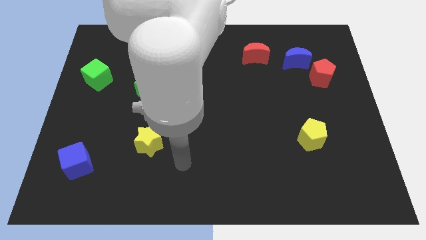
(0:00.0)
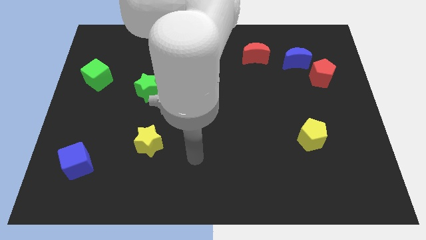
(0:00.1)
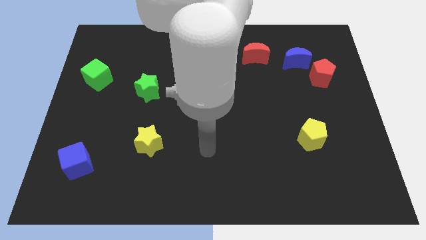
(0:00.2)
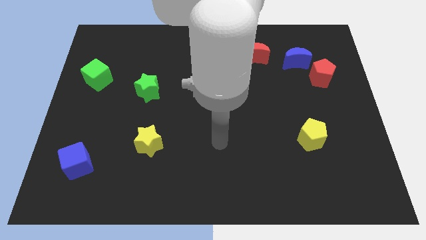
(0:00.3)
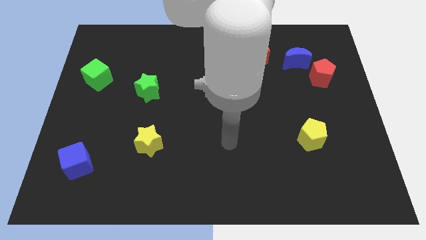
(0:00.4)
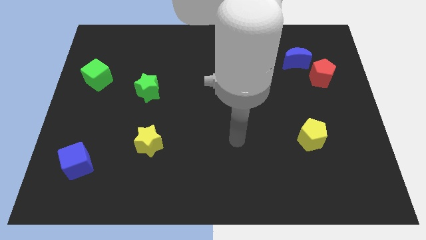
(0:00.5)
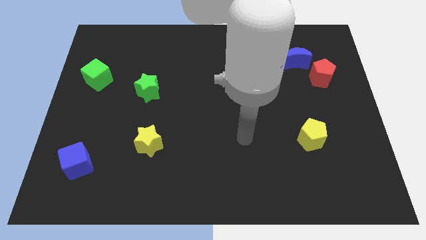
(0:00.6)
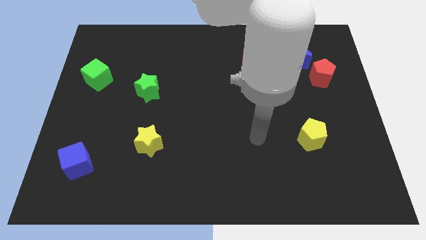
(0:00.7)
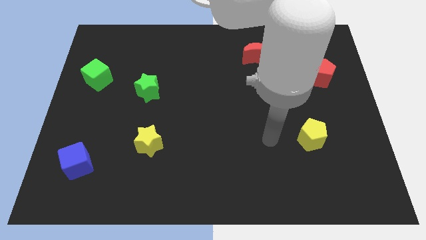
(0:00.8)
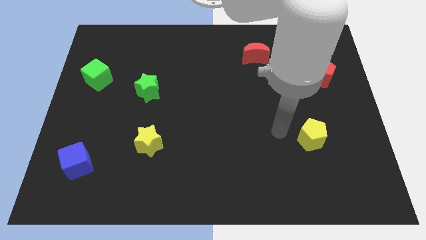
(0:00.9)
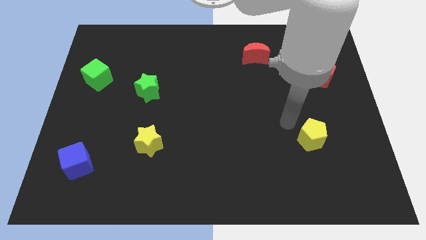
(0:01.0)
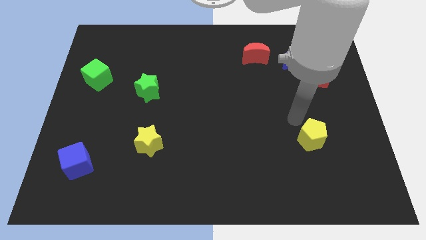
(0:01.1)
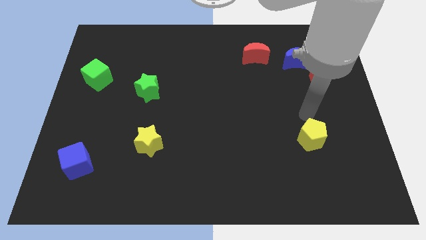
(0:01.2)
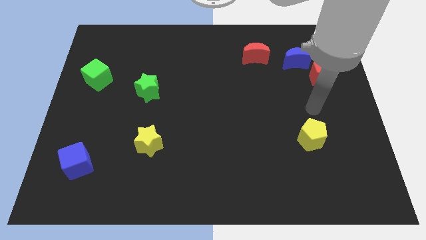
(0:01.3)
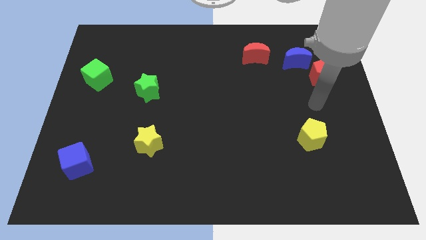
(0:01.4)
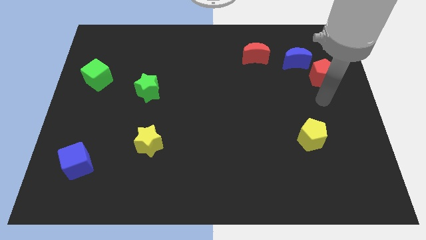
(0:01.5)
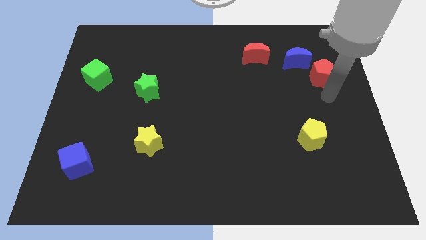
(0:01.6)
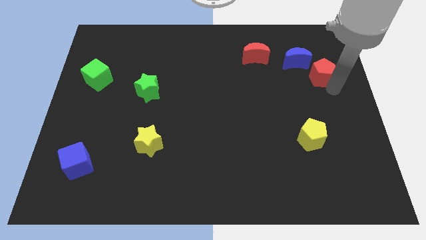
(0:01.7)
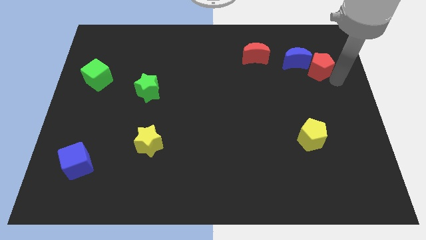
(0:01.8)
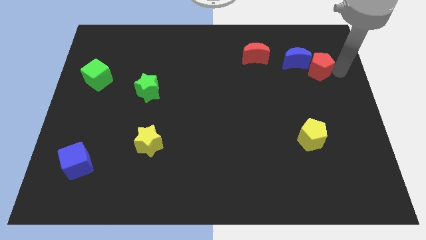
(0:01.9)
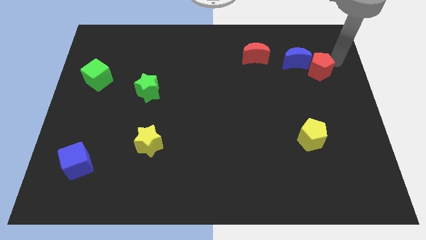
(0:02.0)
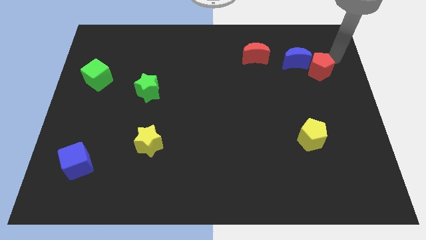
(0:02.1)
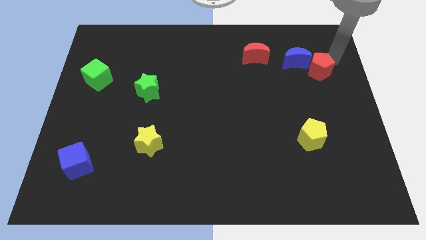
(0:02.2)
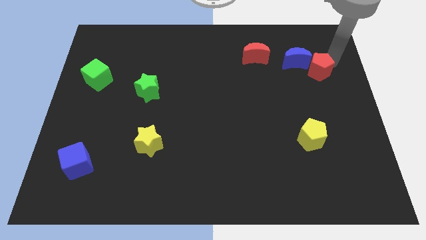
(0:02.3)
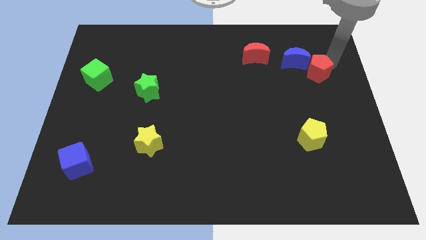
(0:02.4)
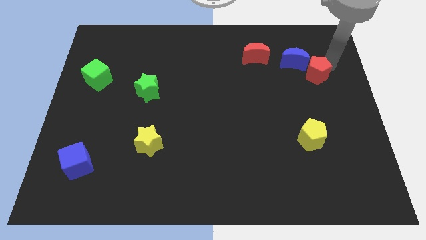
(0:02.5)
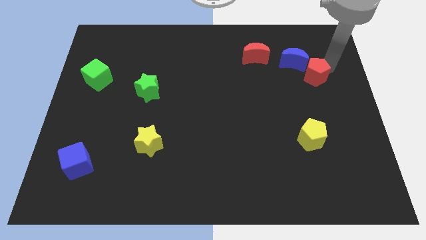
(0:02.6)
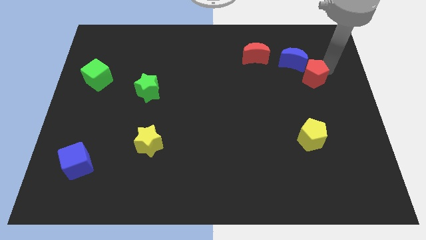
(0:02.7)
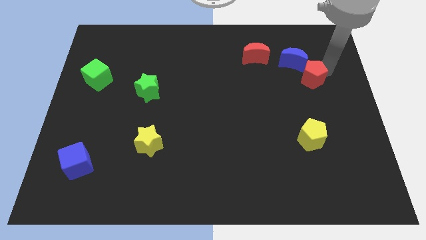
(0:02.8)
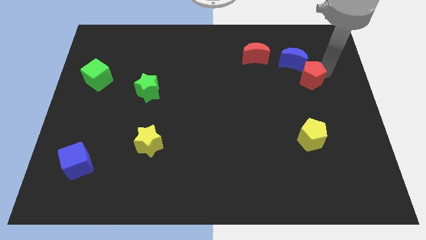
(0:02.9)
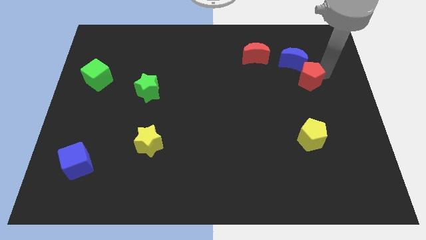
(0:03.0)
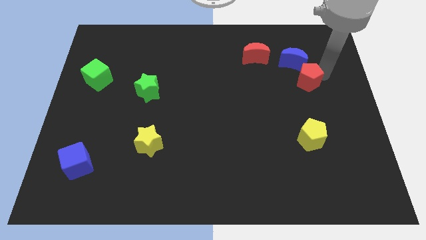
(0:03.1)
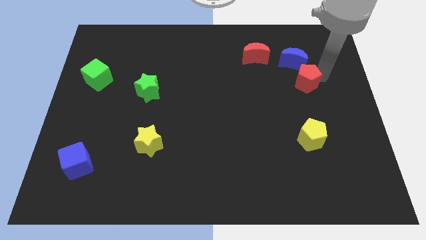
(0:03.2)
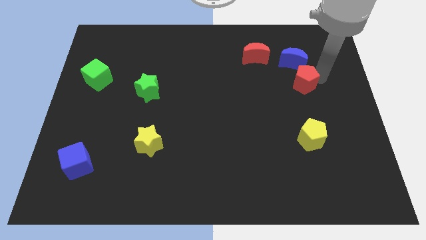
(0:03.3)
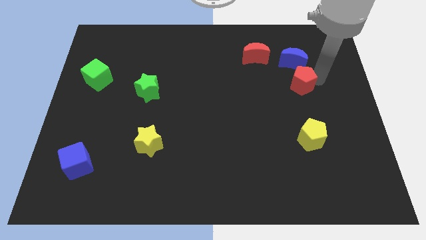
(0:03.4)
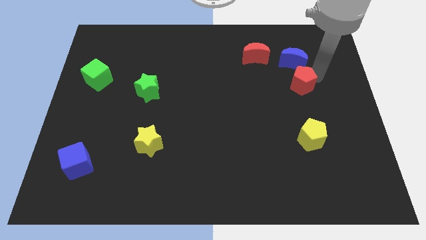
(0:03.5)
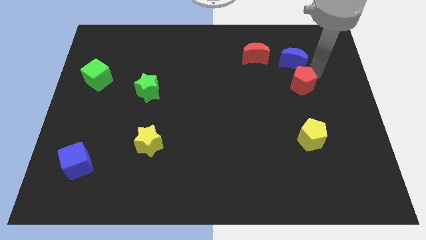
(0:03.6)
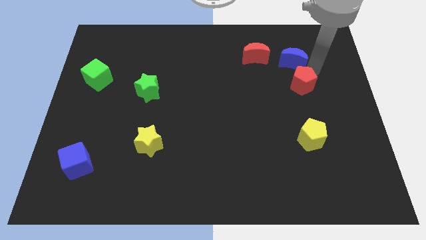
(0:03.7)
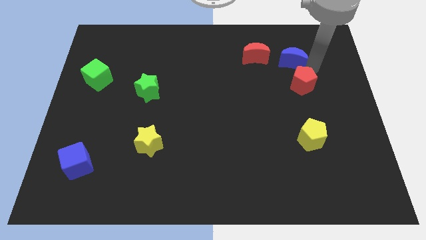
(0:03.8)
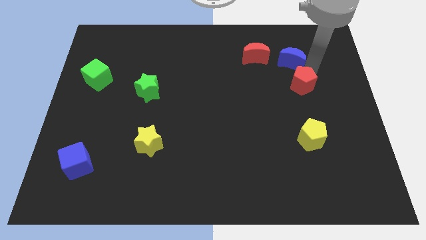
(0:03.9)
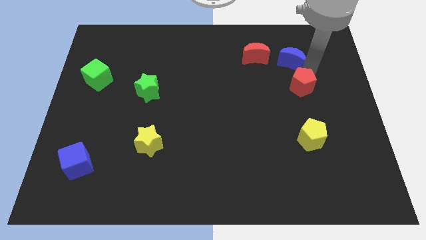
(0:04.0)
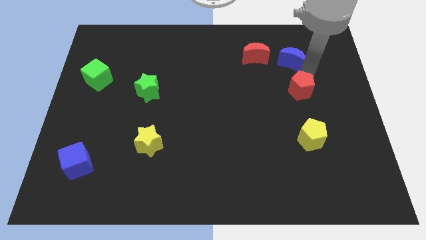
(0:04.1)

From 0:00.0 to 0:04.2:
push the red pentagon a little bit downwards and then left

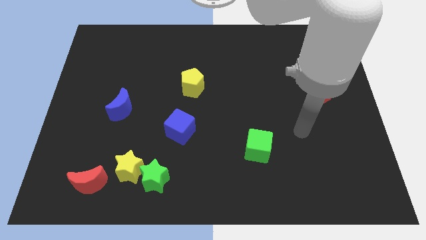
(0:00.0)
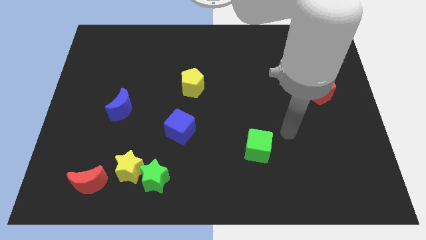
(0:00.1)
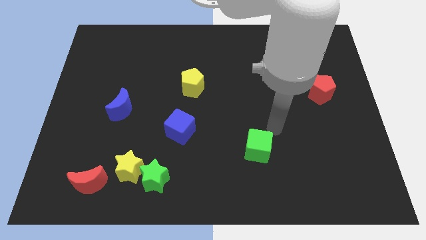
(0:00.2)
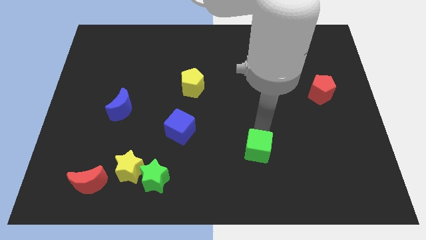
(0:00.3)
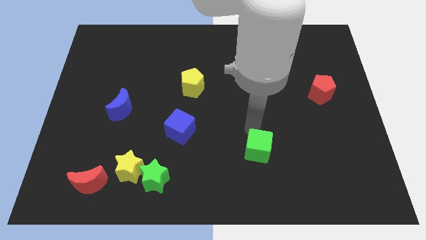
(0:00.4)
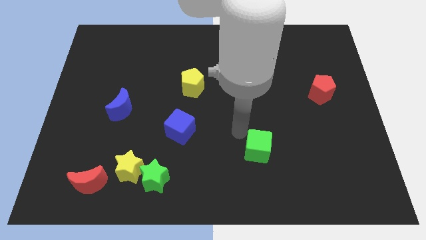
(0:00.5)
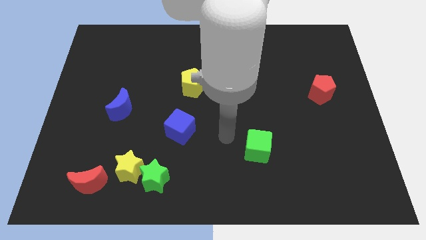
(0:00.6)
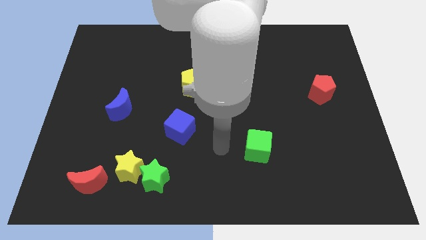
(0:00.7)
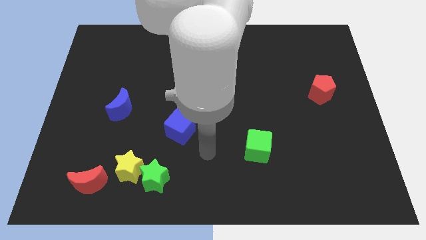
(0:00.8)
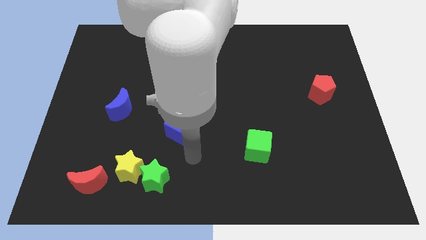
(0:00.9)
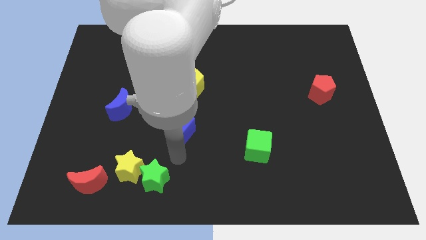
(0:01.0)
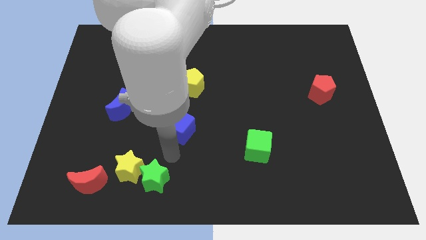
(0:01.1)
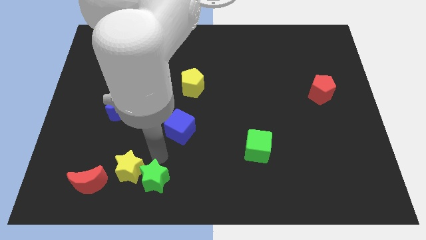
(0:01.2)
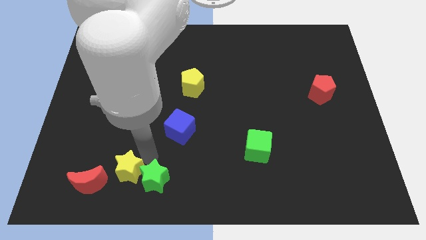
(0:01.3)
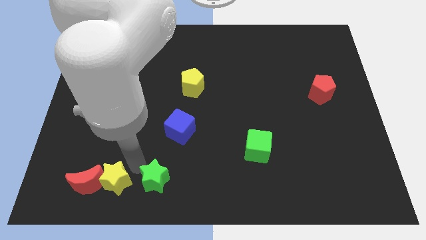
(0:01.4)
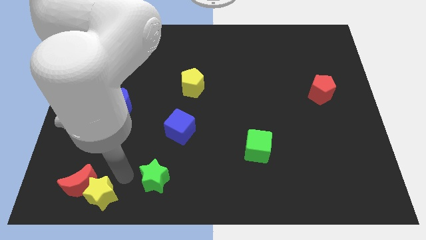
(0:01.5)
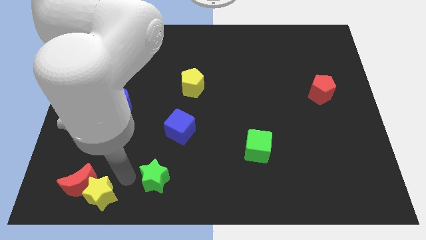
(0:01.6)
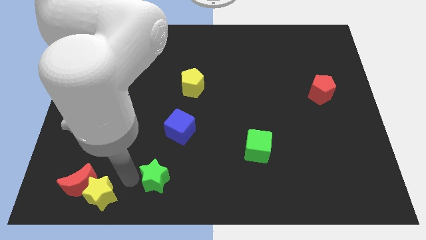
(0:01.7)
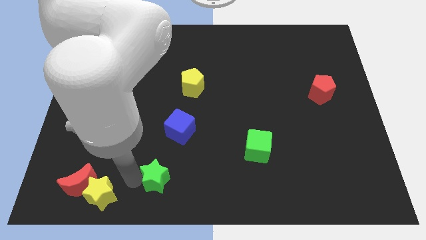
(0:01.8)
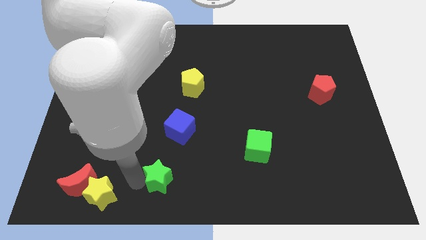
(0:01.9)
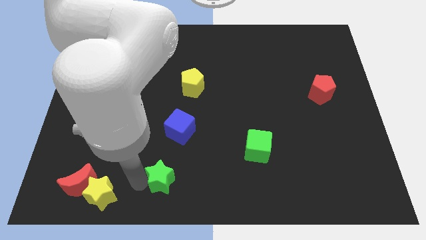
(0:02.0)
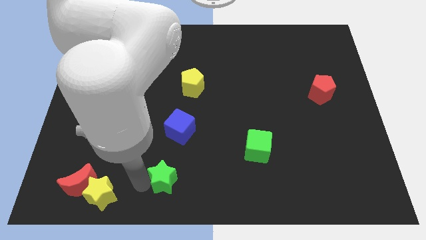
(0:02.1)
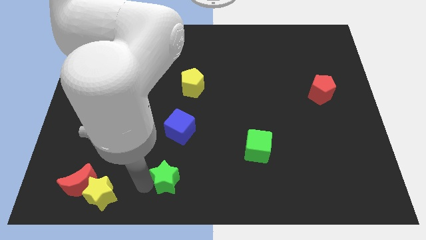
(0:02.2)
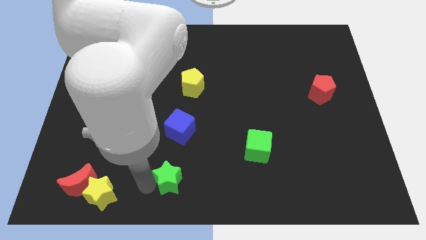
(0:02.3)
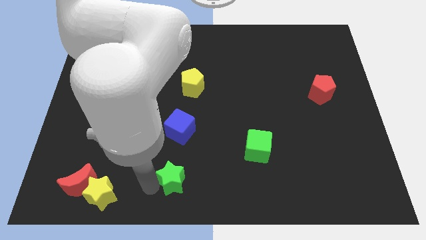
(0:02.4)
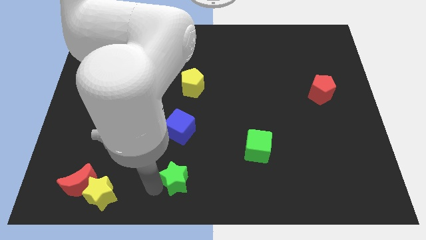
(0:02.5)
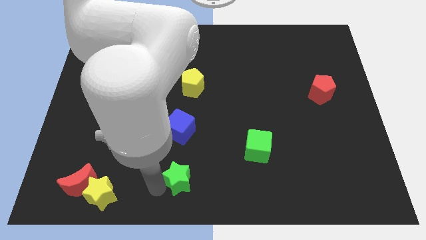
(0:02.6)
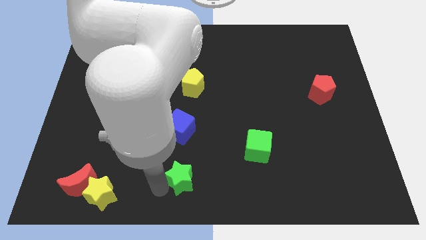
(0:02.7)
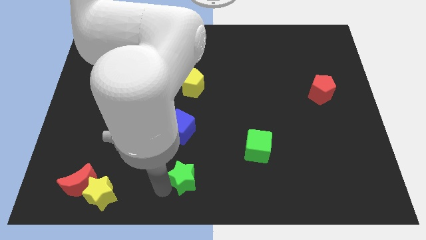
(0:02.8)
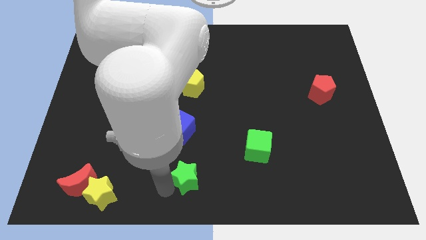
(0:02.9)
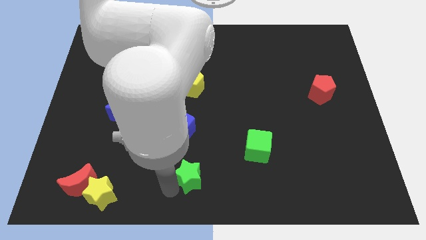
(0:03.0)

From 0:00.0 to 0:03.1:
push the green star to the right a bit

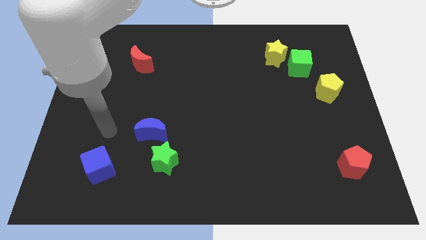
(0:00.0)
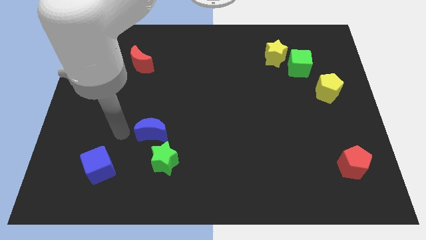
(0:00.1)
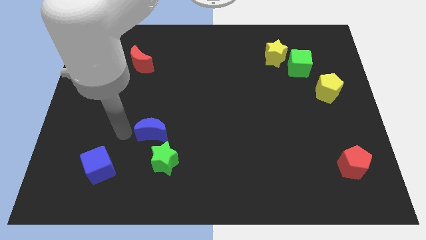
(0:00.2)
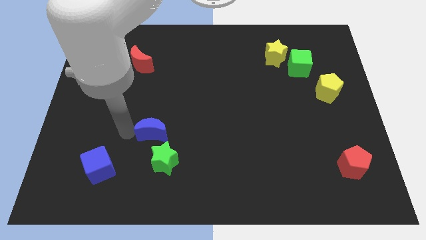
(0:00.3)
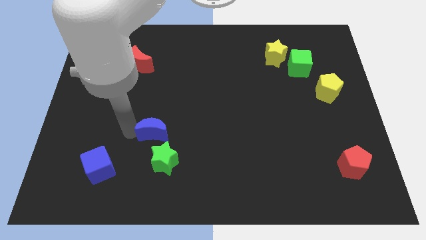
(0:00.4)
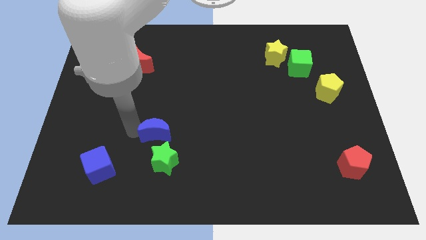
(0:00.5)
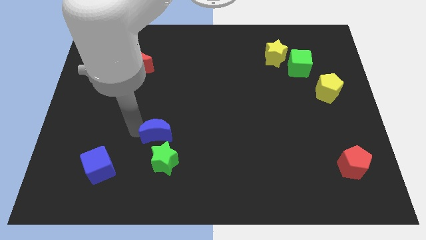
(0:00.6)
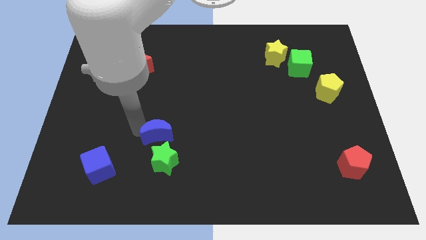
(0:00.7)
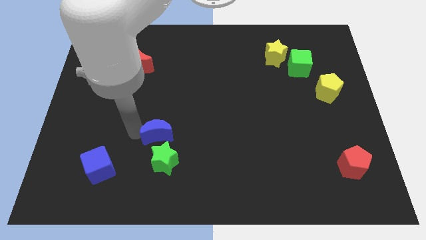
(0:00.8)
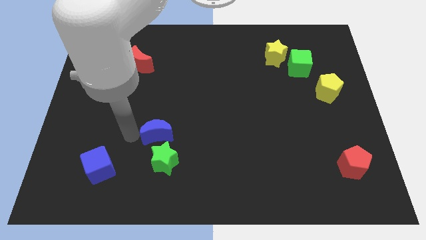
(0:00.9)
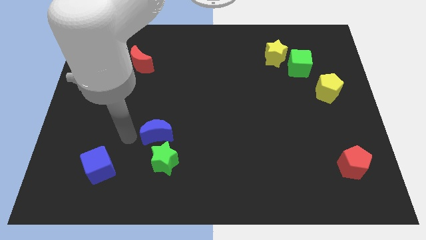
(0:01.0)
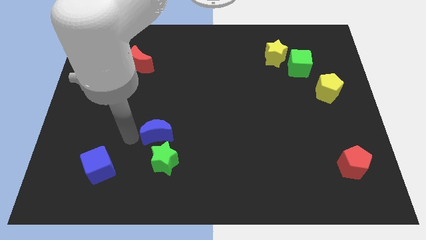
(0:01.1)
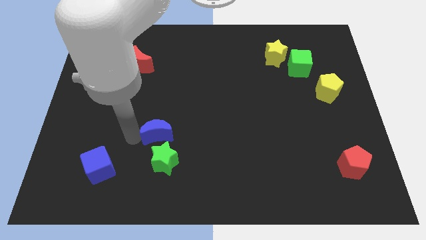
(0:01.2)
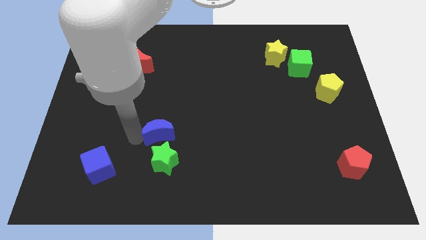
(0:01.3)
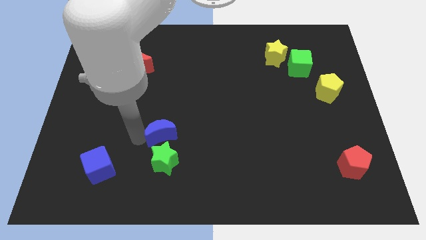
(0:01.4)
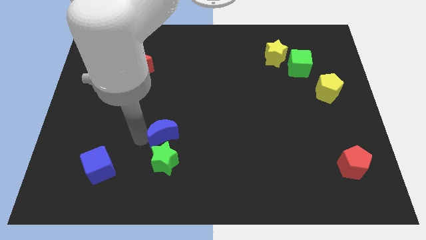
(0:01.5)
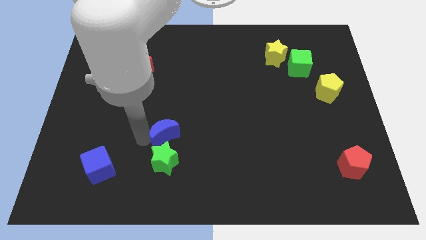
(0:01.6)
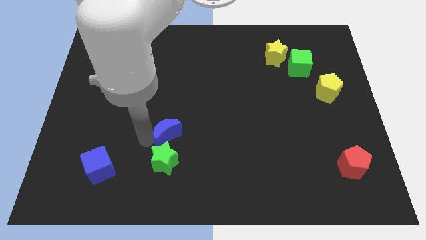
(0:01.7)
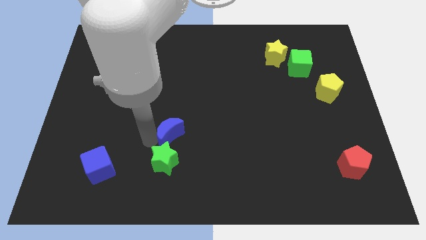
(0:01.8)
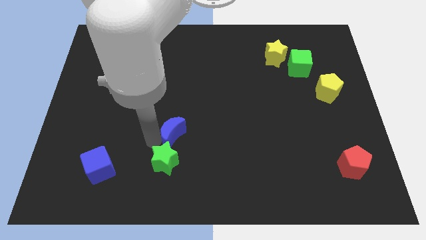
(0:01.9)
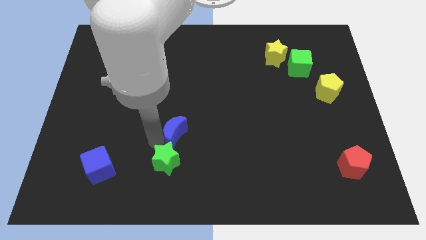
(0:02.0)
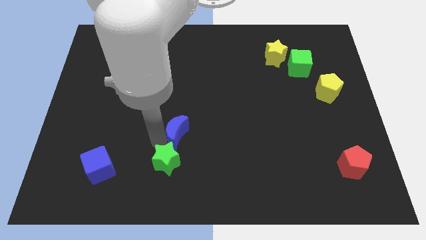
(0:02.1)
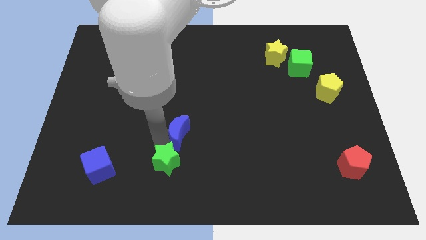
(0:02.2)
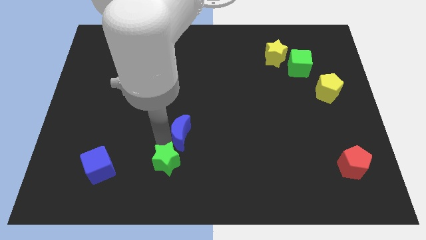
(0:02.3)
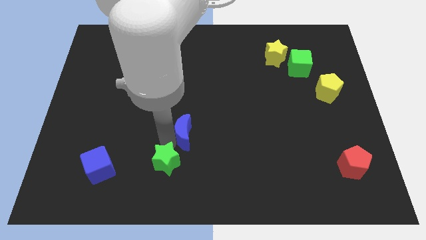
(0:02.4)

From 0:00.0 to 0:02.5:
slide the blue moon to the right somewhat
